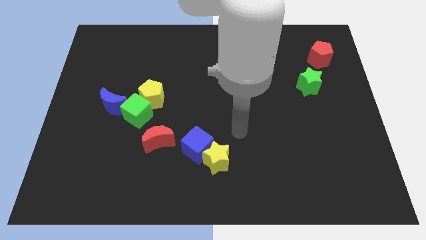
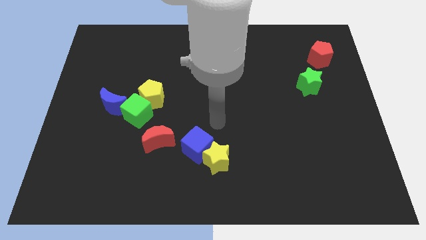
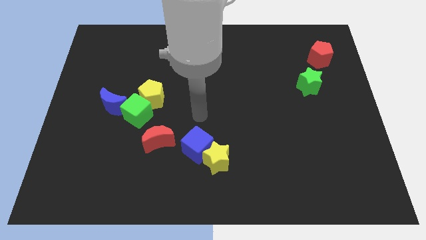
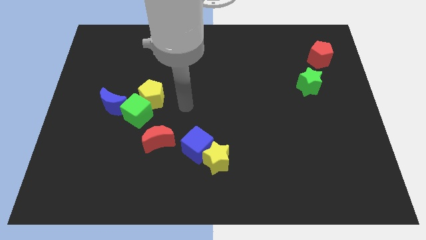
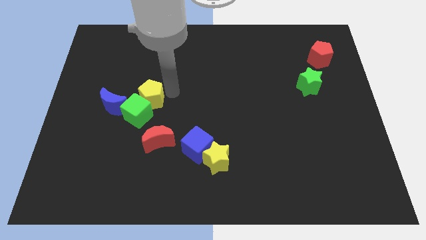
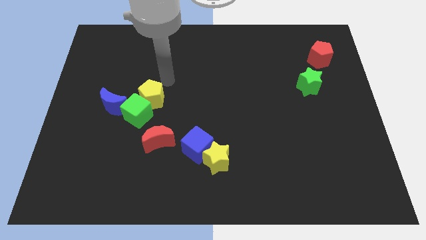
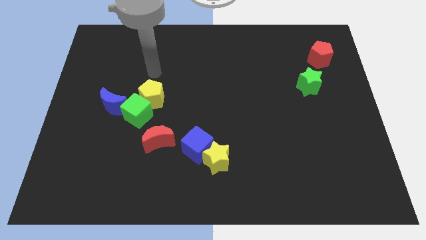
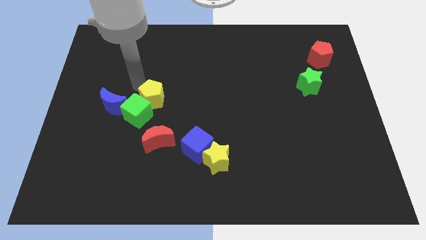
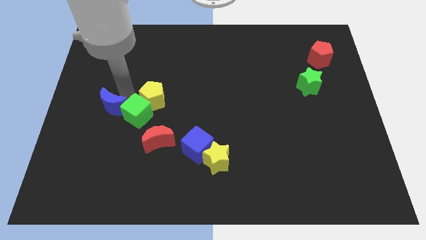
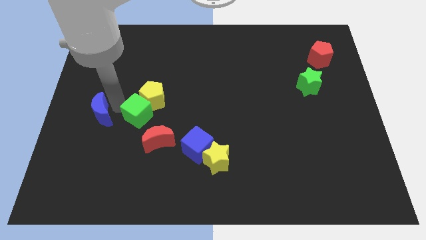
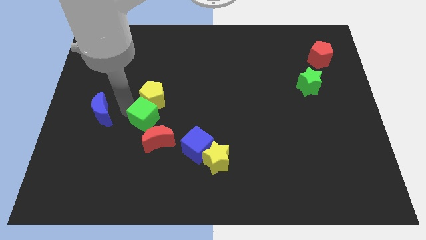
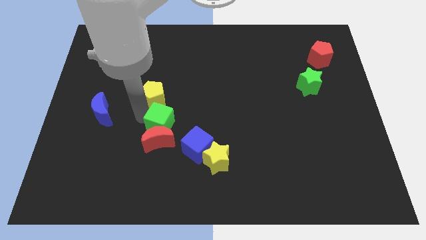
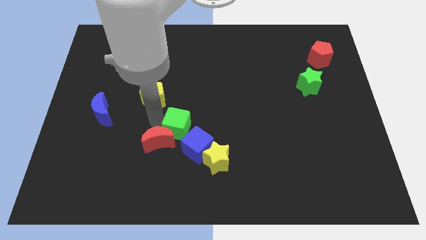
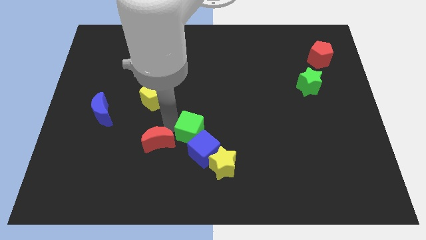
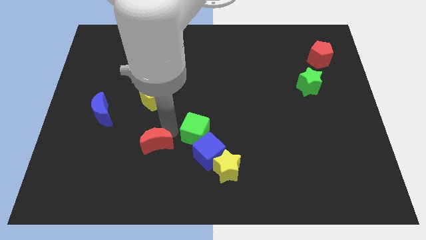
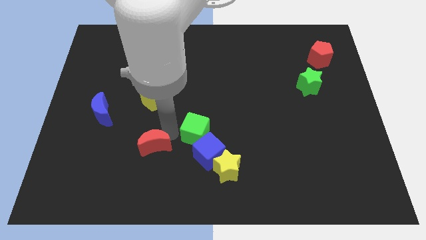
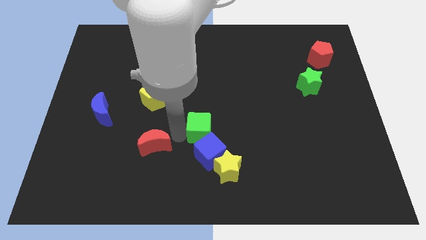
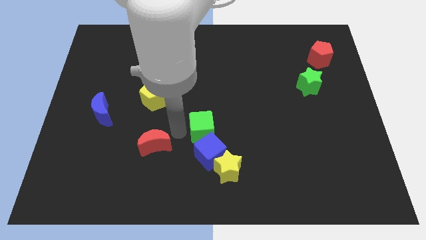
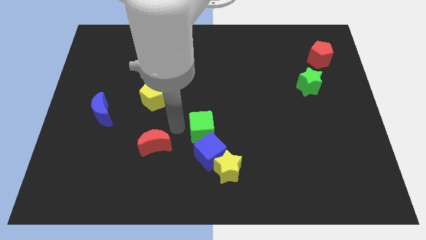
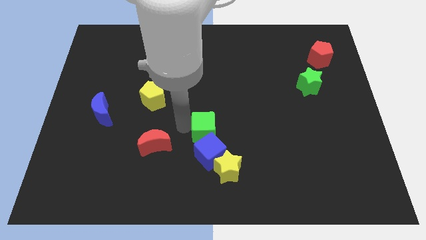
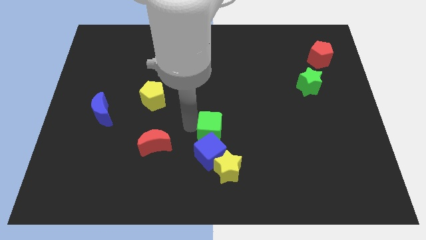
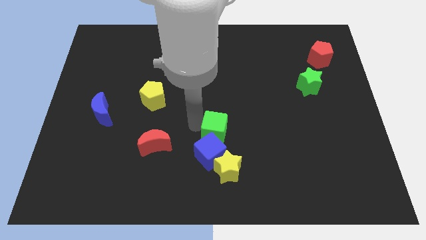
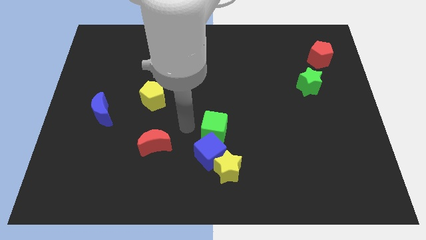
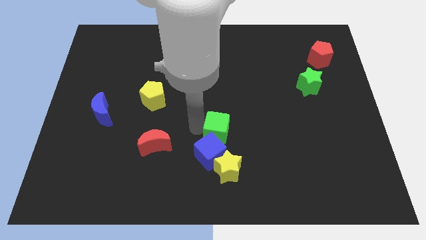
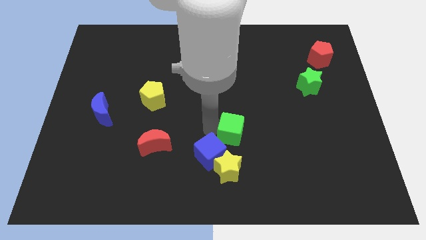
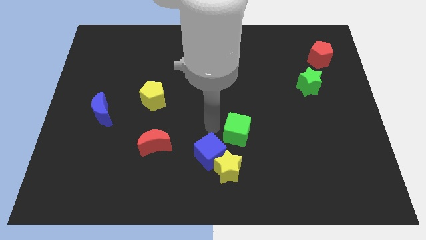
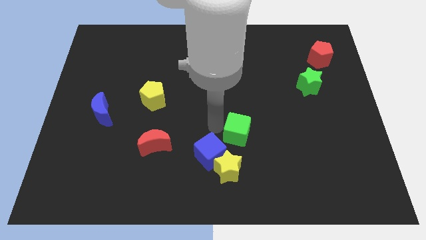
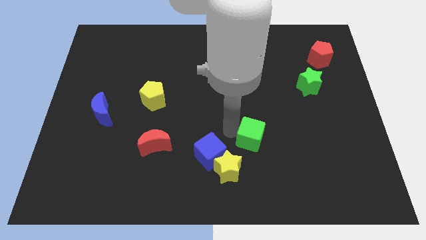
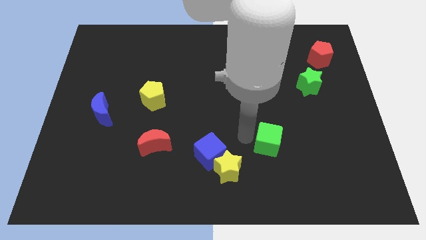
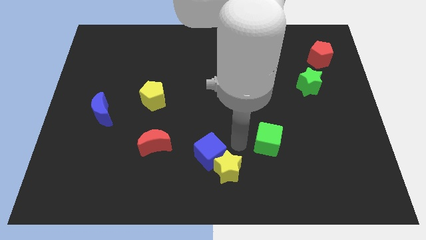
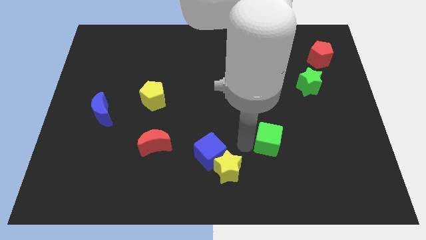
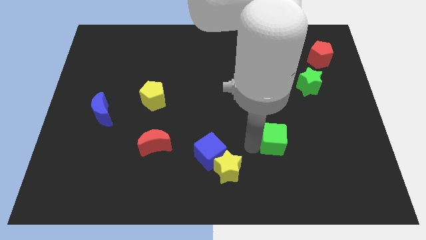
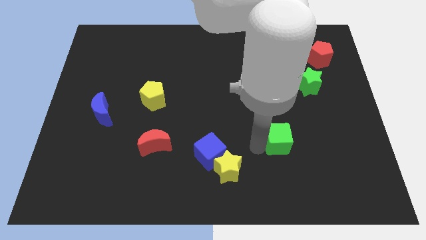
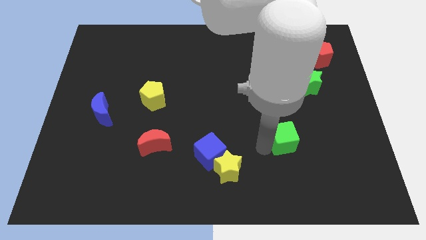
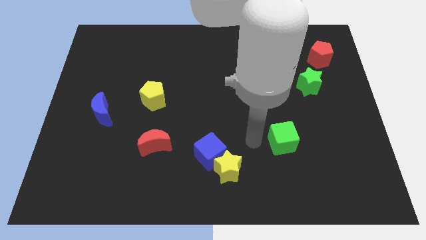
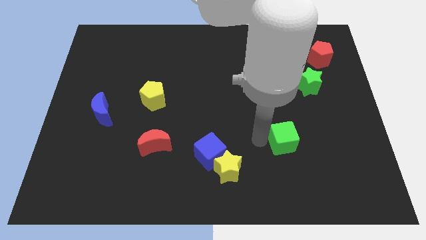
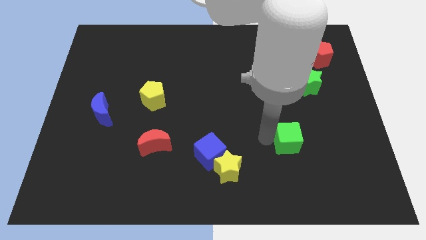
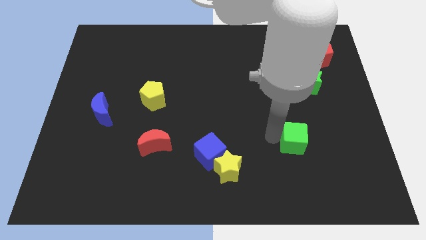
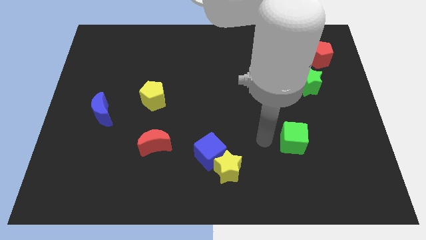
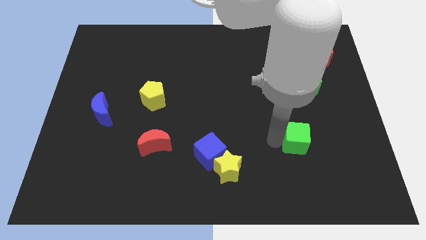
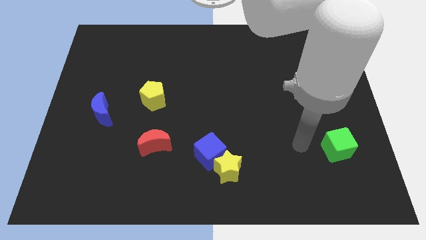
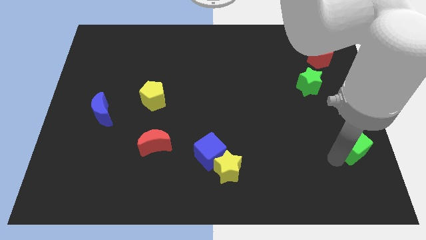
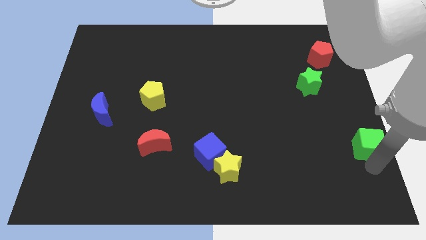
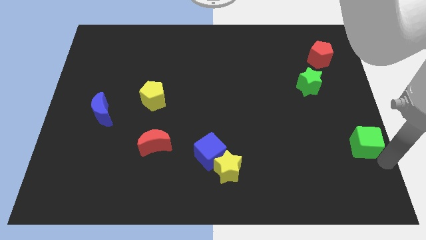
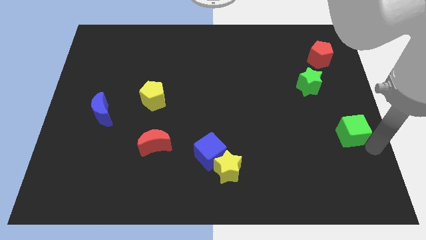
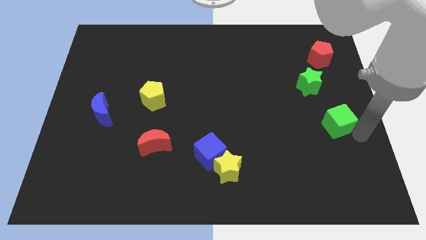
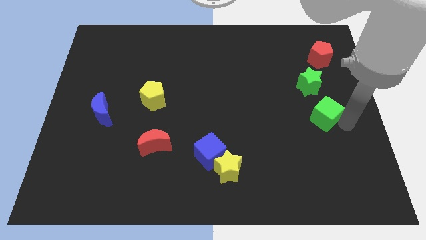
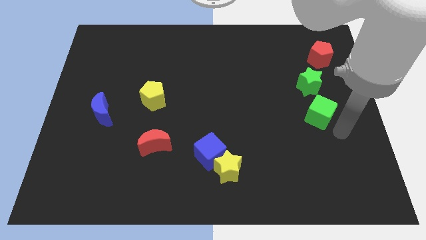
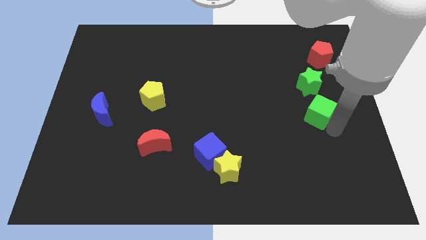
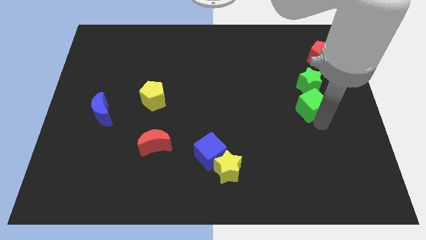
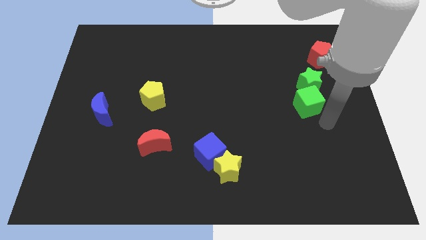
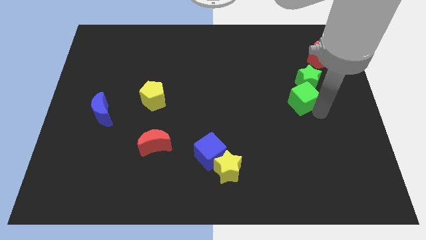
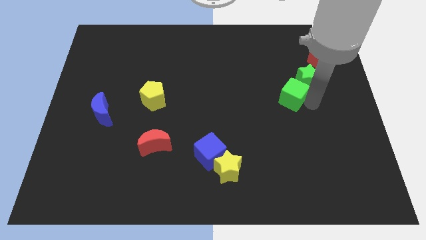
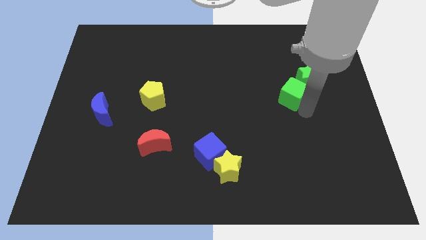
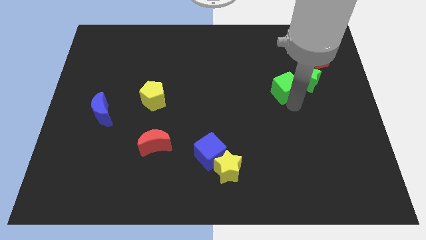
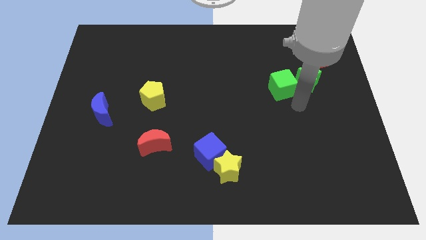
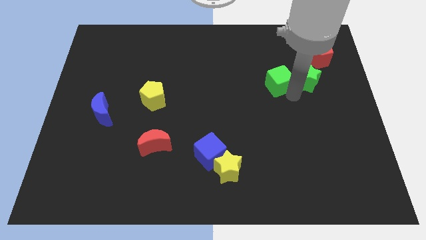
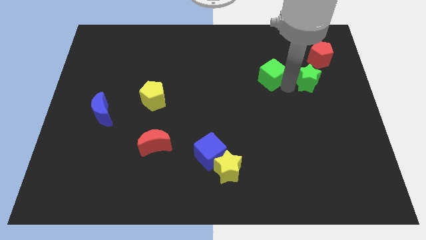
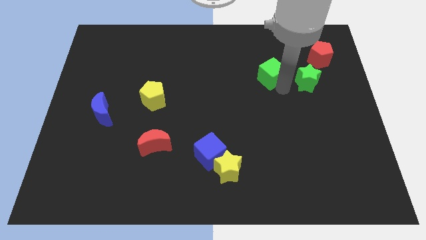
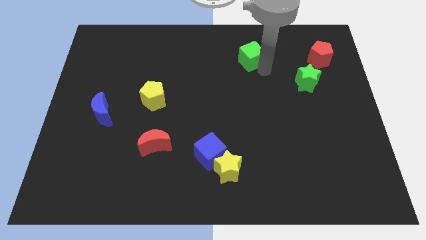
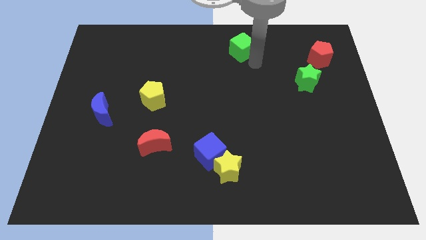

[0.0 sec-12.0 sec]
put the green cube to the towards your base

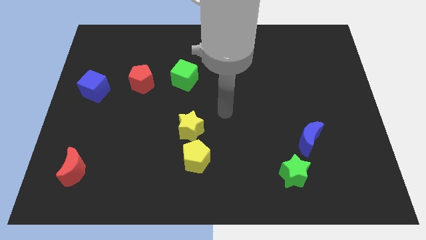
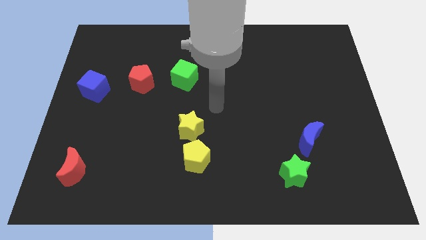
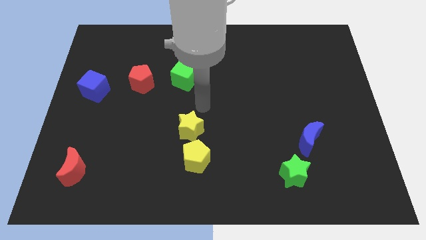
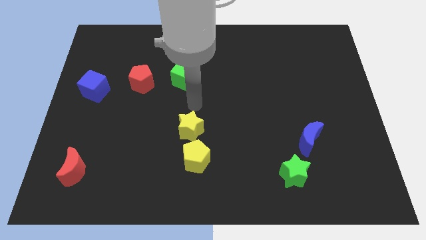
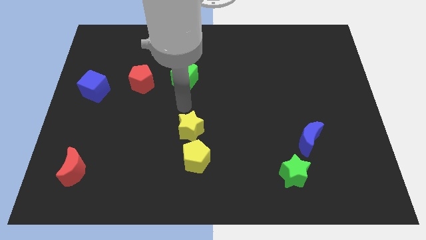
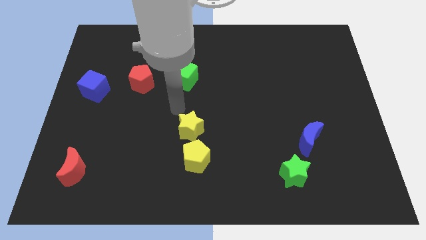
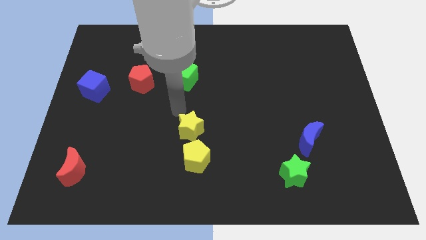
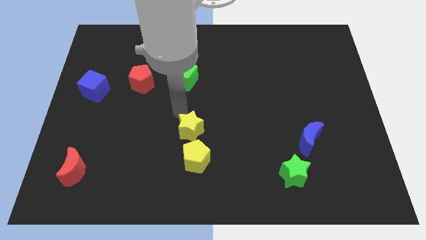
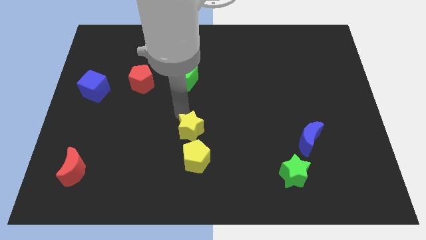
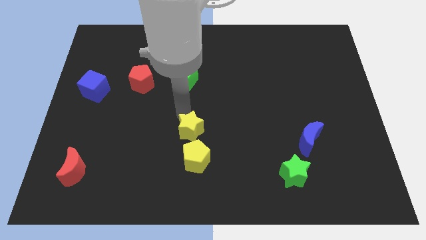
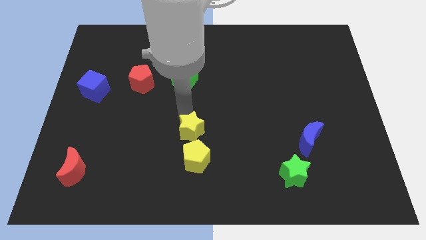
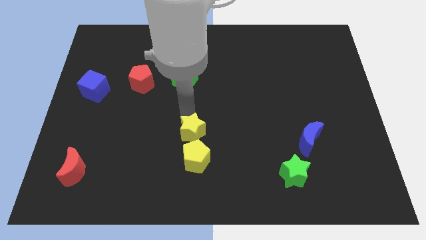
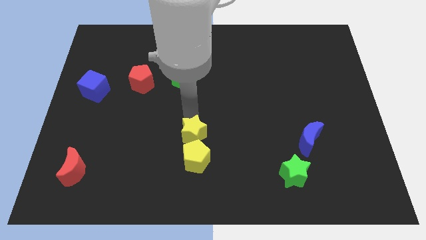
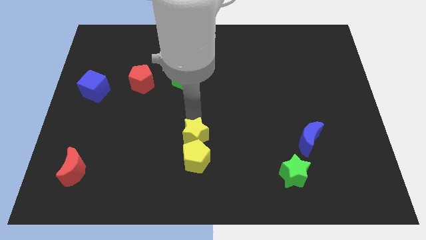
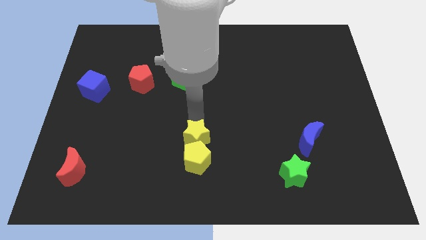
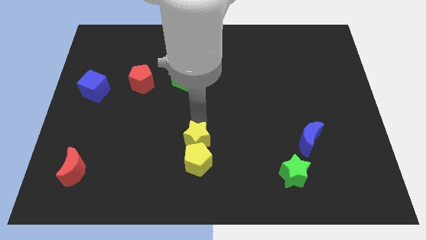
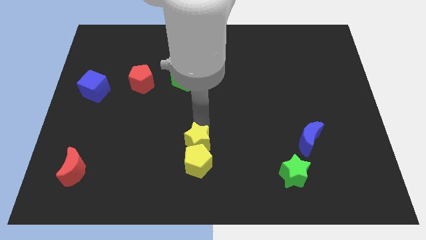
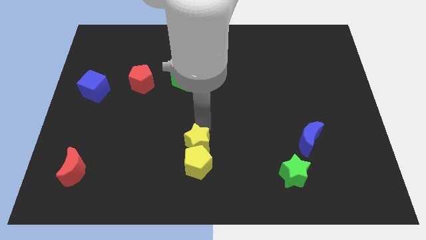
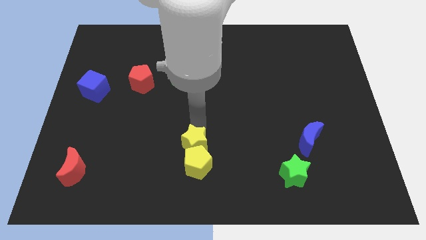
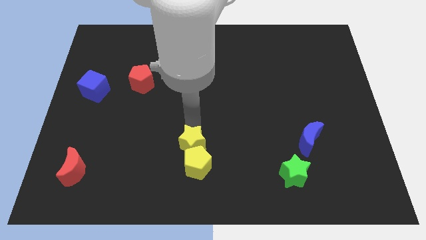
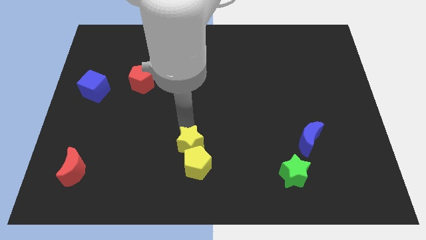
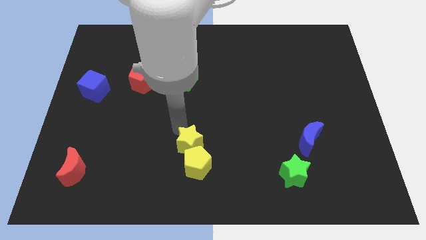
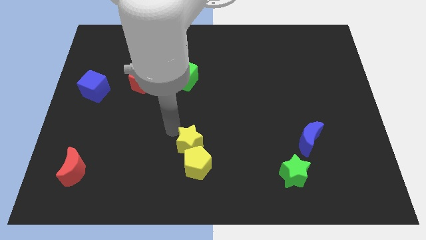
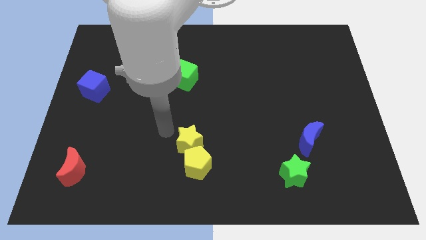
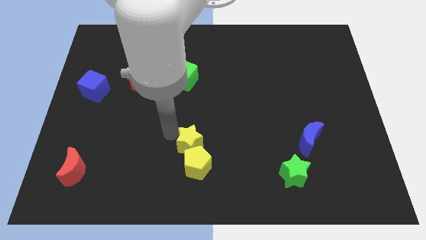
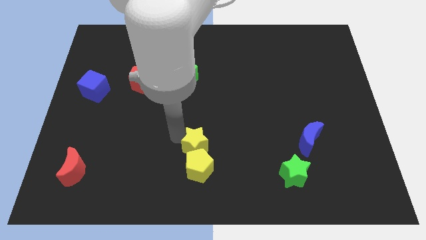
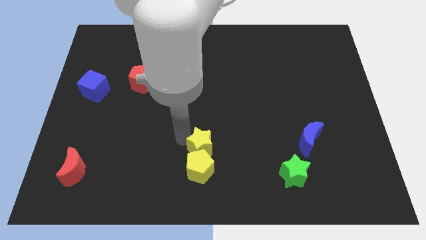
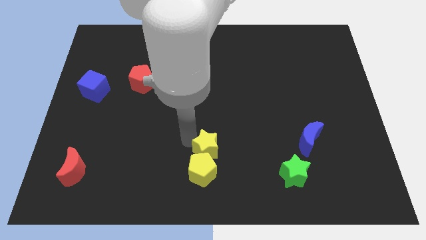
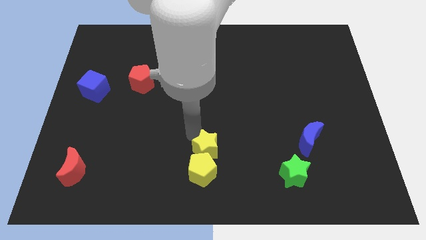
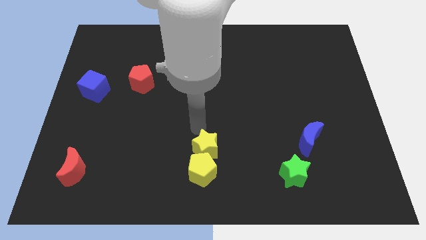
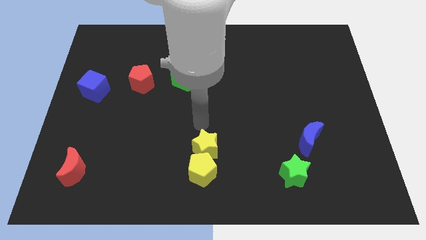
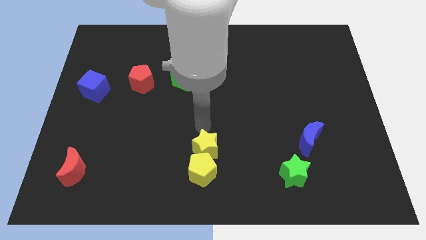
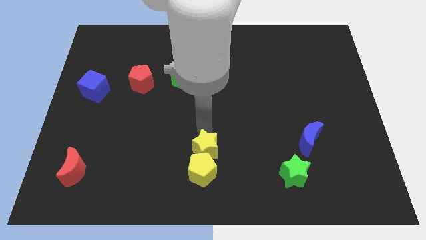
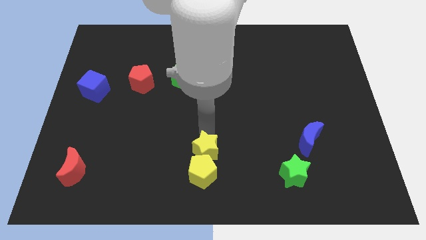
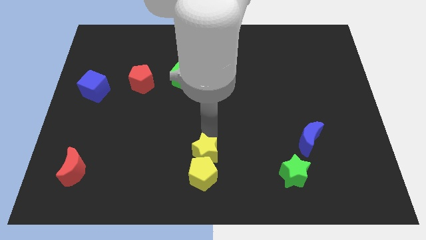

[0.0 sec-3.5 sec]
push the yellow star to the bottom side
